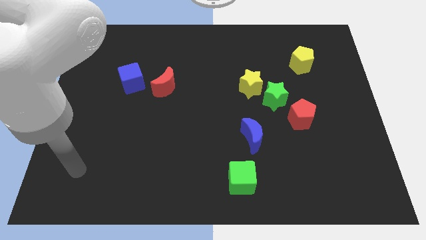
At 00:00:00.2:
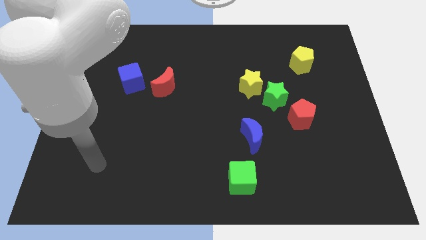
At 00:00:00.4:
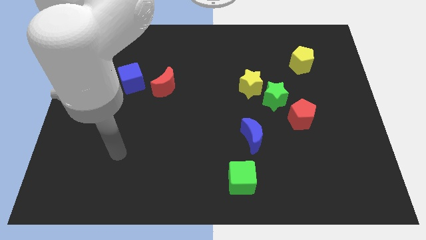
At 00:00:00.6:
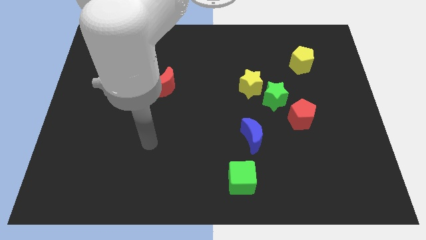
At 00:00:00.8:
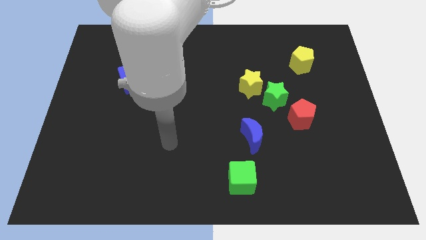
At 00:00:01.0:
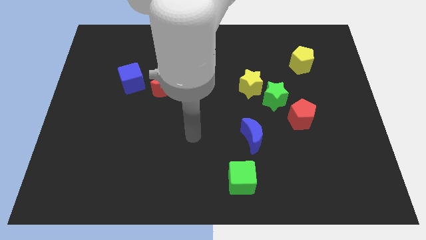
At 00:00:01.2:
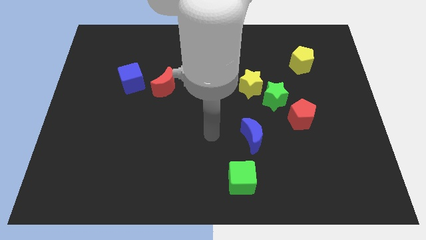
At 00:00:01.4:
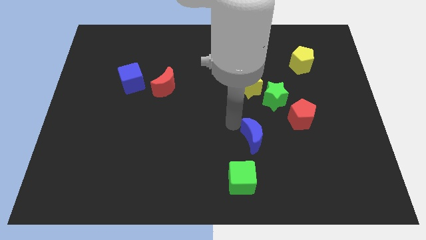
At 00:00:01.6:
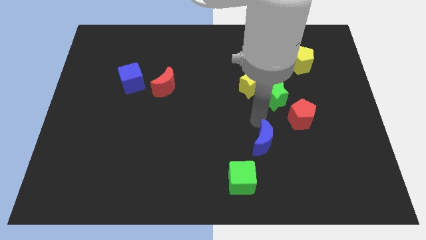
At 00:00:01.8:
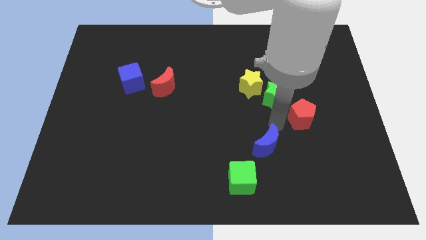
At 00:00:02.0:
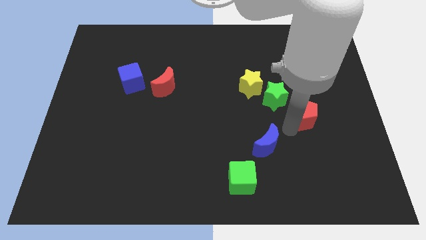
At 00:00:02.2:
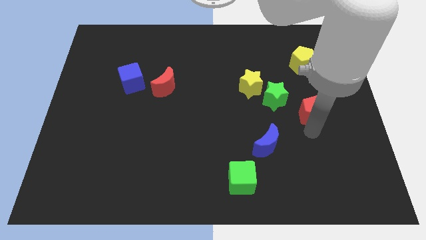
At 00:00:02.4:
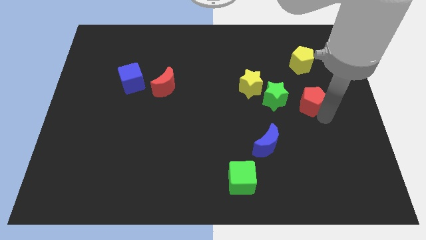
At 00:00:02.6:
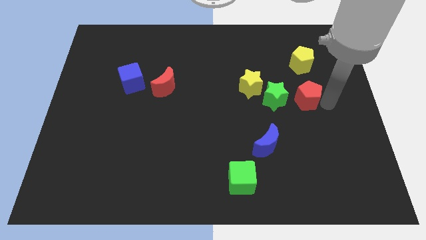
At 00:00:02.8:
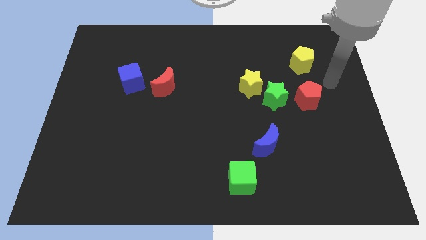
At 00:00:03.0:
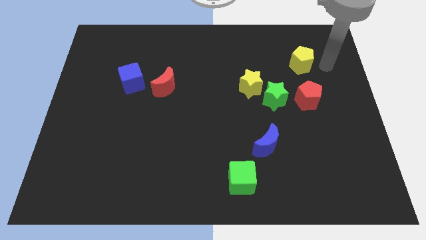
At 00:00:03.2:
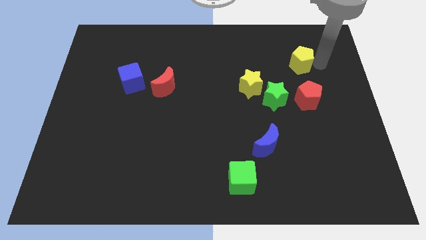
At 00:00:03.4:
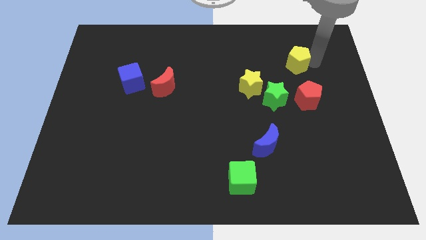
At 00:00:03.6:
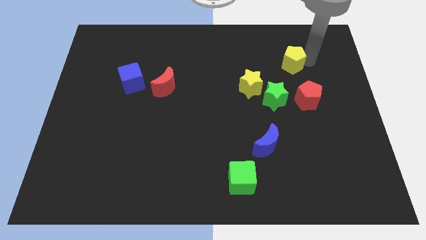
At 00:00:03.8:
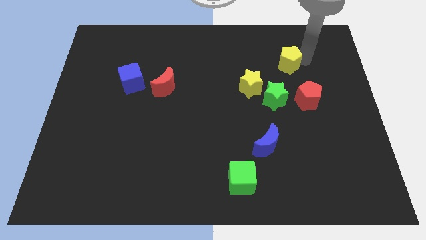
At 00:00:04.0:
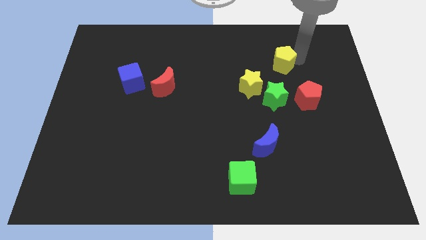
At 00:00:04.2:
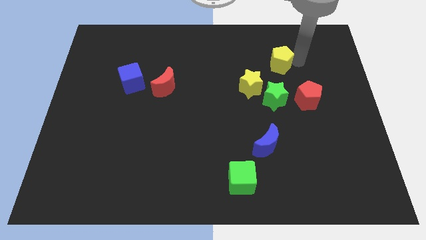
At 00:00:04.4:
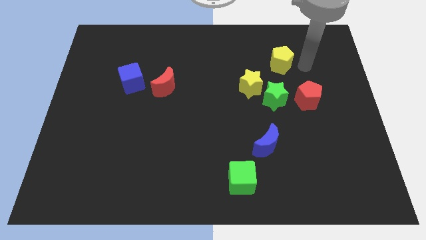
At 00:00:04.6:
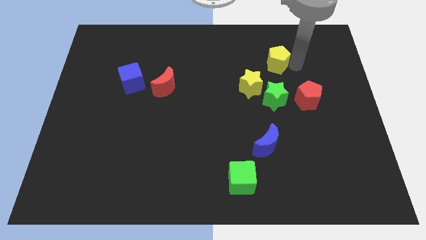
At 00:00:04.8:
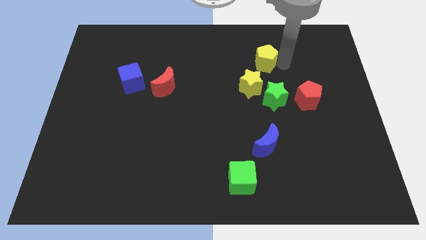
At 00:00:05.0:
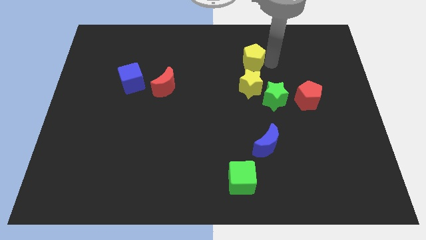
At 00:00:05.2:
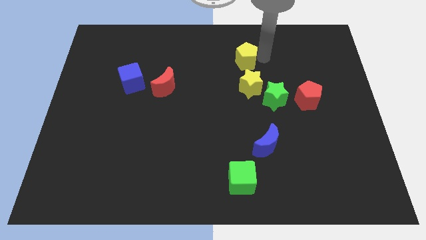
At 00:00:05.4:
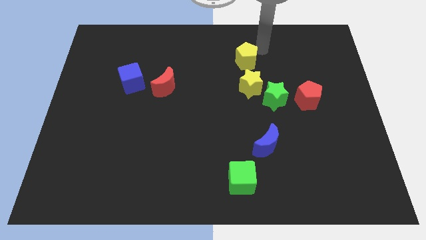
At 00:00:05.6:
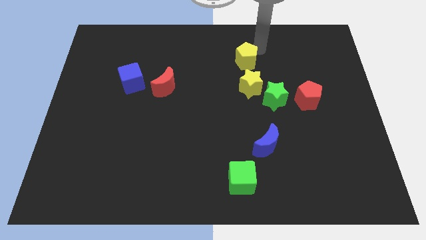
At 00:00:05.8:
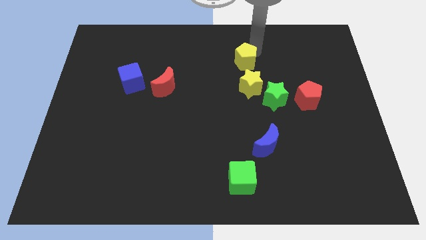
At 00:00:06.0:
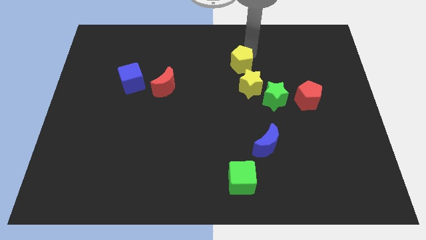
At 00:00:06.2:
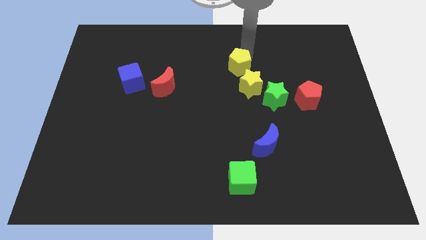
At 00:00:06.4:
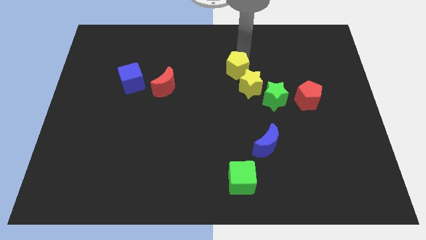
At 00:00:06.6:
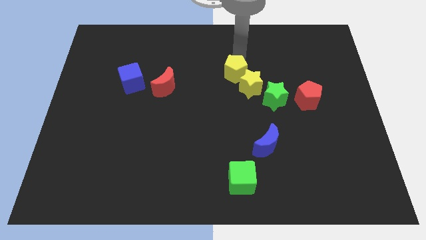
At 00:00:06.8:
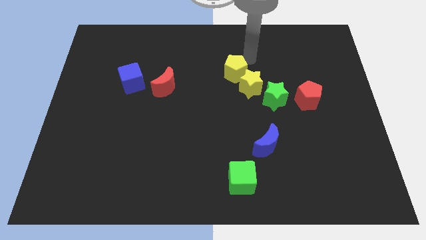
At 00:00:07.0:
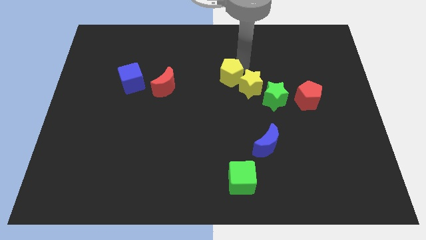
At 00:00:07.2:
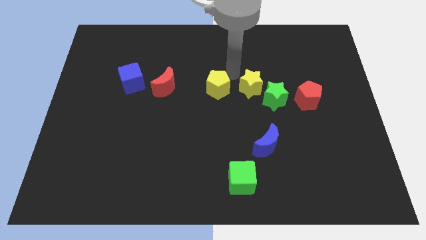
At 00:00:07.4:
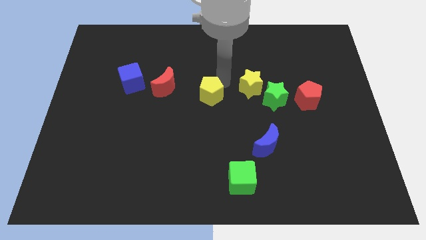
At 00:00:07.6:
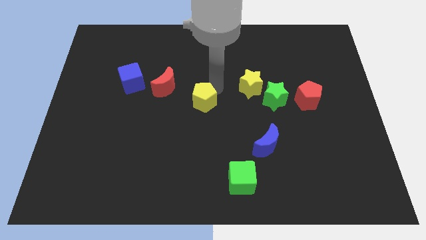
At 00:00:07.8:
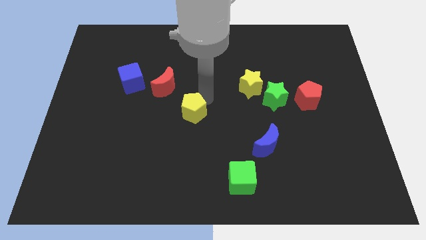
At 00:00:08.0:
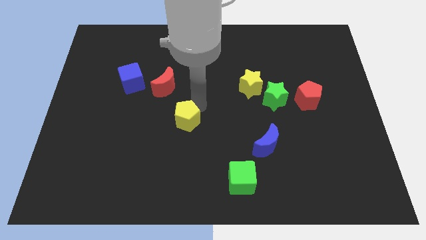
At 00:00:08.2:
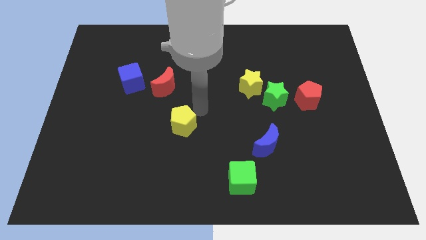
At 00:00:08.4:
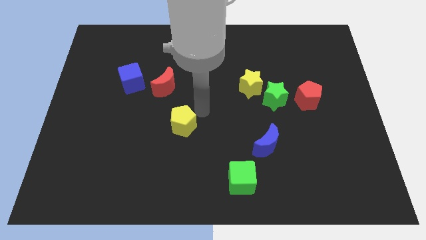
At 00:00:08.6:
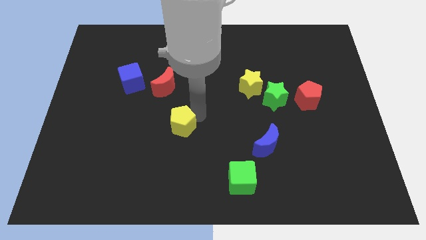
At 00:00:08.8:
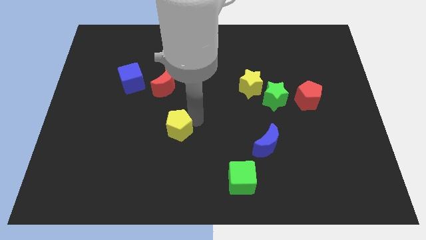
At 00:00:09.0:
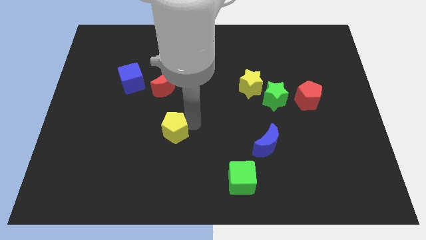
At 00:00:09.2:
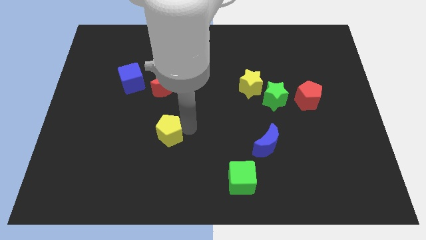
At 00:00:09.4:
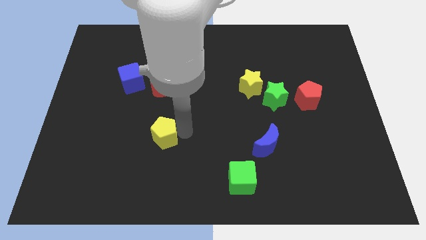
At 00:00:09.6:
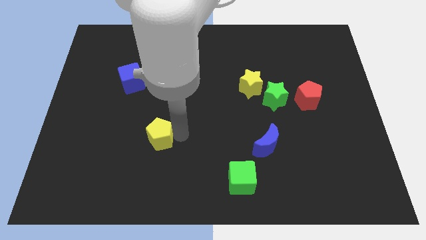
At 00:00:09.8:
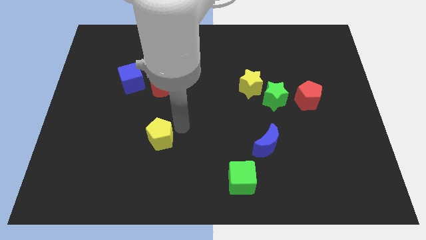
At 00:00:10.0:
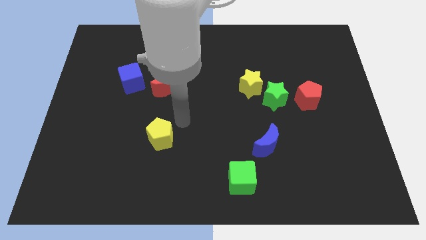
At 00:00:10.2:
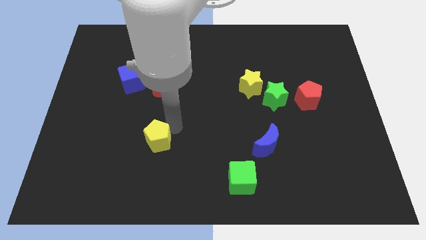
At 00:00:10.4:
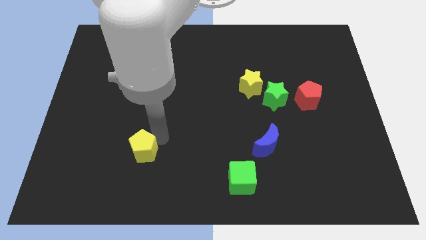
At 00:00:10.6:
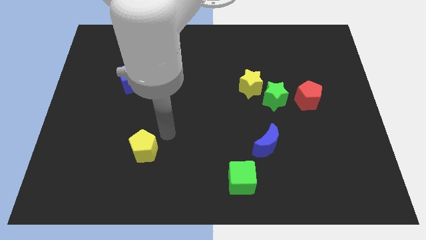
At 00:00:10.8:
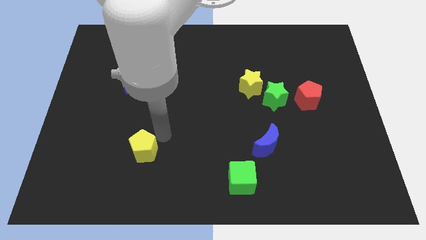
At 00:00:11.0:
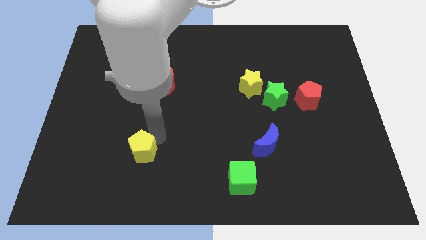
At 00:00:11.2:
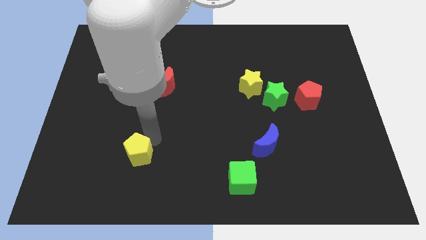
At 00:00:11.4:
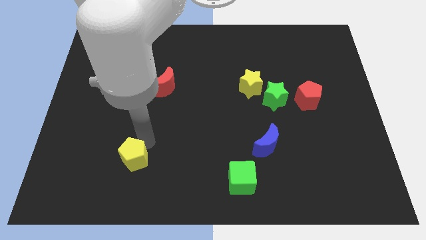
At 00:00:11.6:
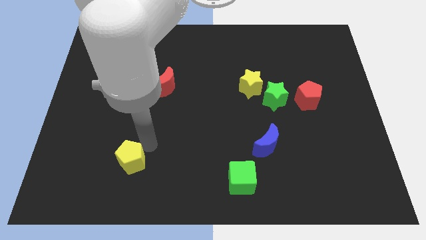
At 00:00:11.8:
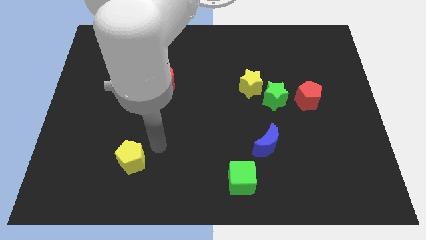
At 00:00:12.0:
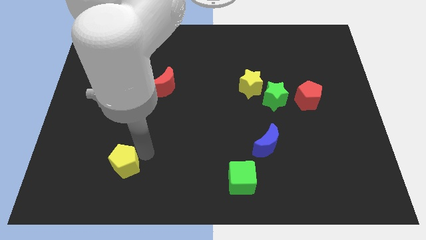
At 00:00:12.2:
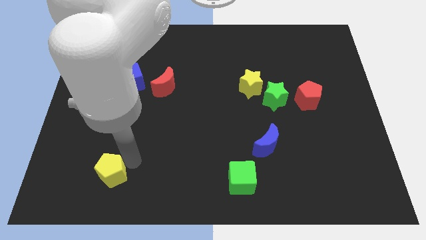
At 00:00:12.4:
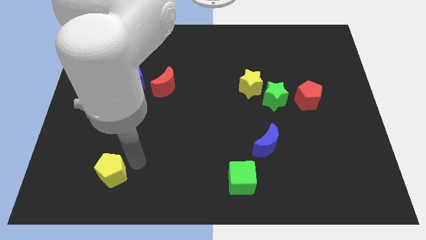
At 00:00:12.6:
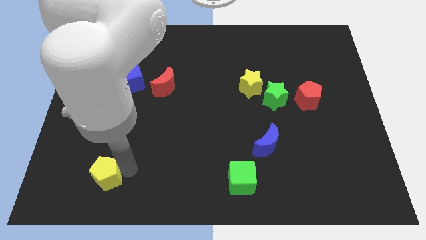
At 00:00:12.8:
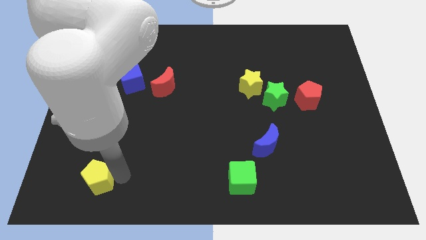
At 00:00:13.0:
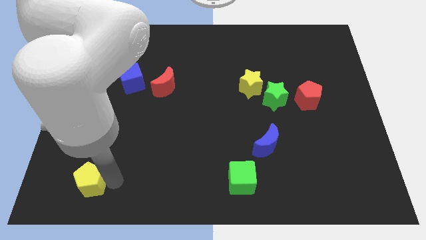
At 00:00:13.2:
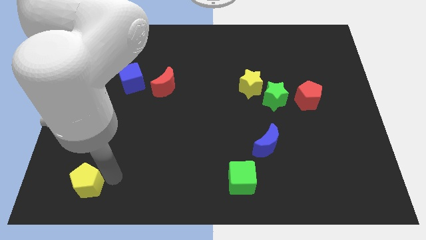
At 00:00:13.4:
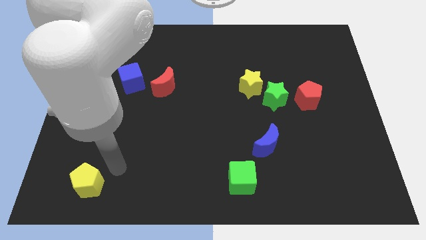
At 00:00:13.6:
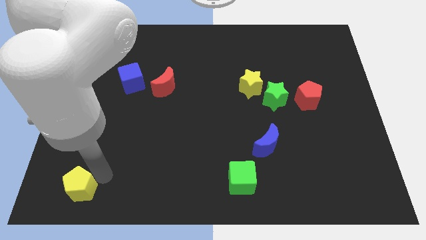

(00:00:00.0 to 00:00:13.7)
slide the yellow pentagon to the bottom left of the board

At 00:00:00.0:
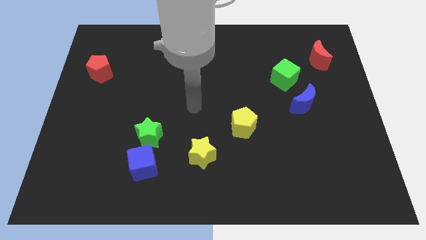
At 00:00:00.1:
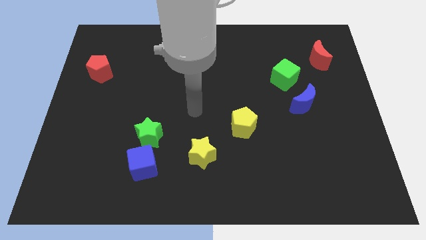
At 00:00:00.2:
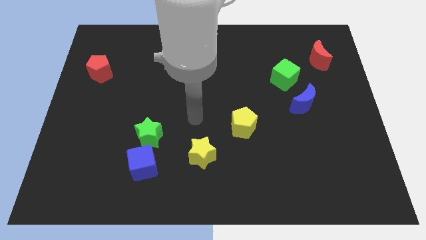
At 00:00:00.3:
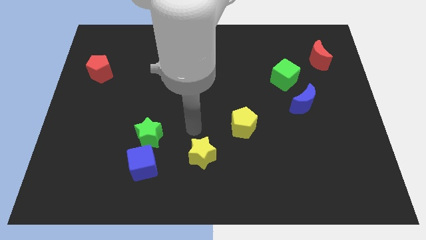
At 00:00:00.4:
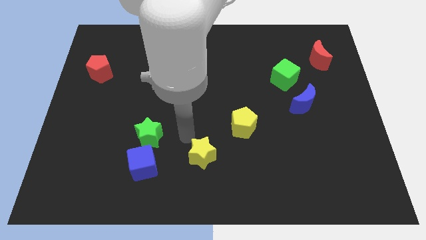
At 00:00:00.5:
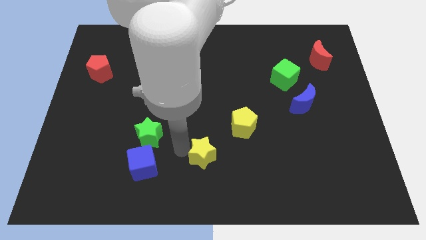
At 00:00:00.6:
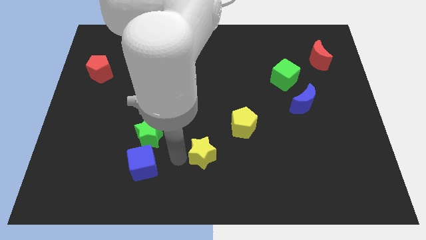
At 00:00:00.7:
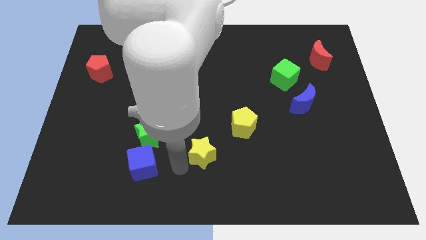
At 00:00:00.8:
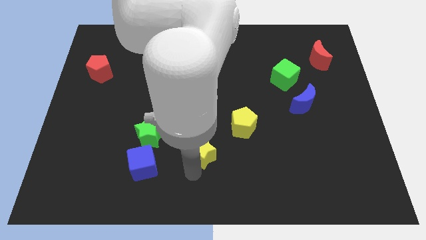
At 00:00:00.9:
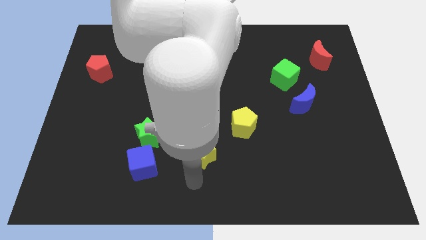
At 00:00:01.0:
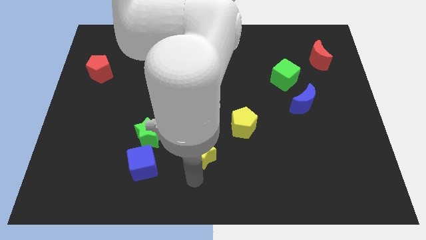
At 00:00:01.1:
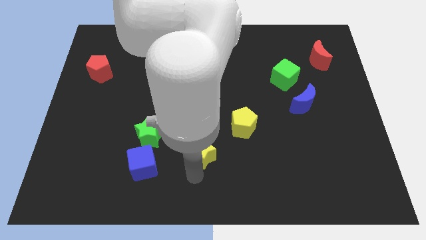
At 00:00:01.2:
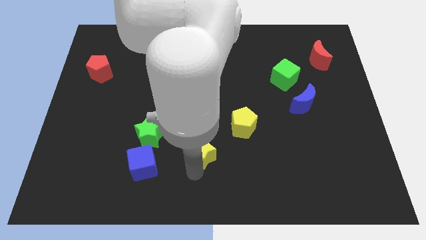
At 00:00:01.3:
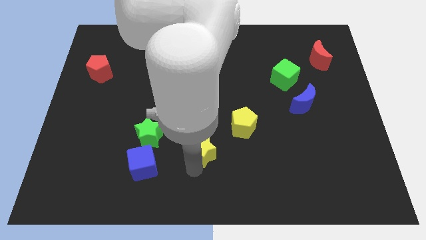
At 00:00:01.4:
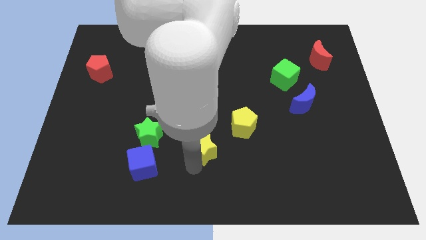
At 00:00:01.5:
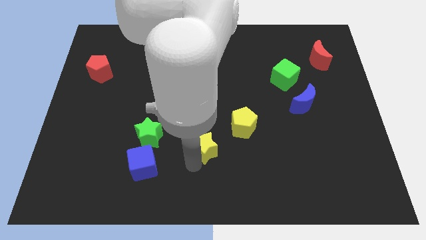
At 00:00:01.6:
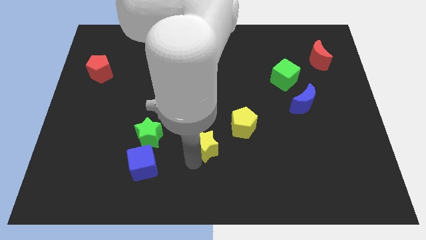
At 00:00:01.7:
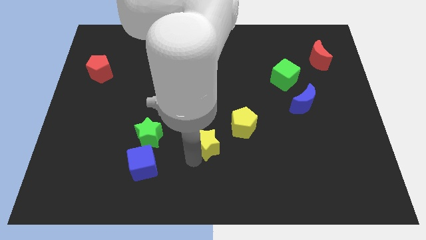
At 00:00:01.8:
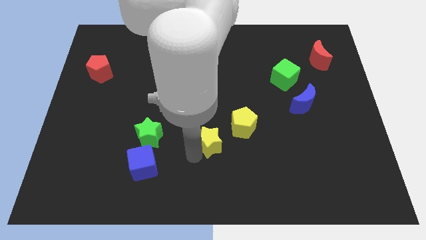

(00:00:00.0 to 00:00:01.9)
move the yellow star to the center
